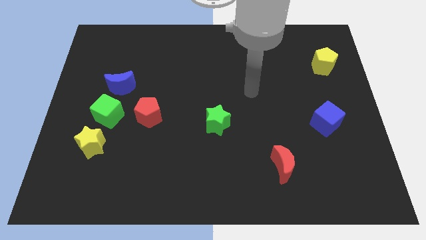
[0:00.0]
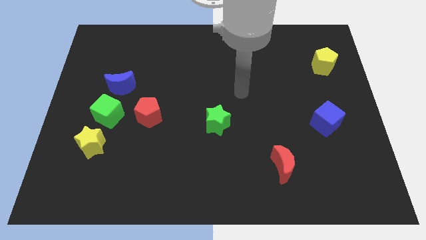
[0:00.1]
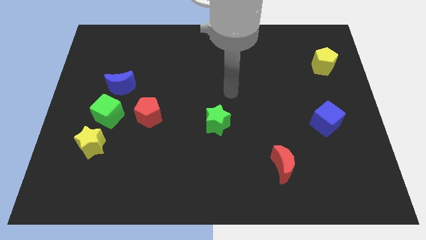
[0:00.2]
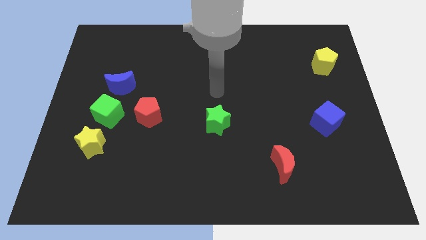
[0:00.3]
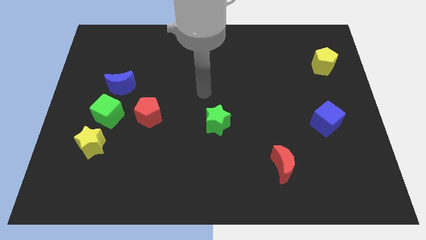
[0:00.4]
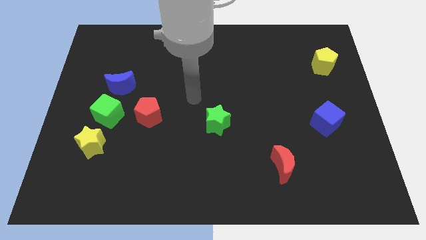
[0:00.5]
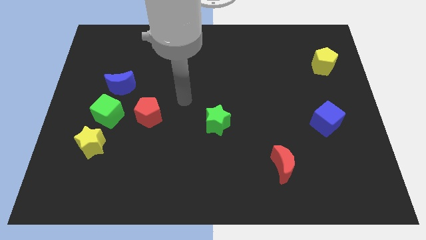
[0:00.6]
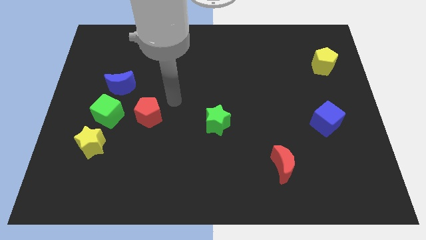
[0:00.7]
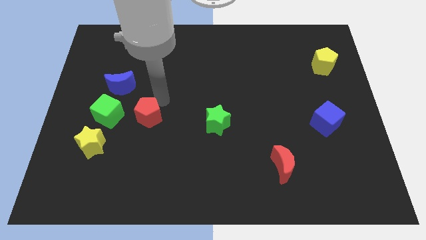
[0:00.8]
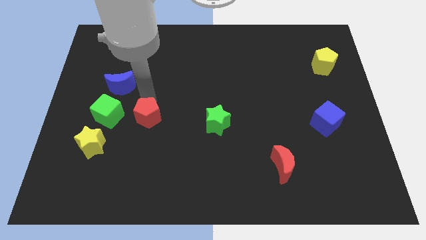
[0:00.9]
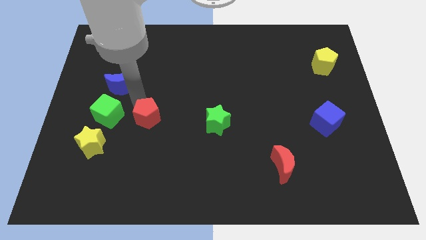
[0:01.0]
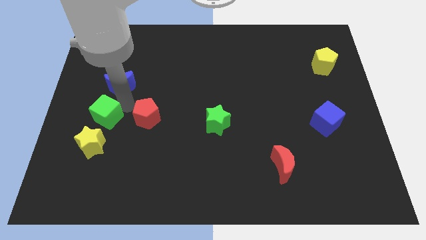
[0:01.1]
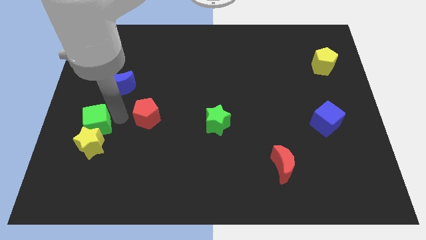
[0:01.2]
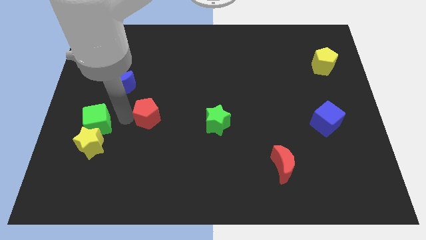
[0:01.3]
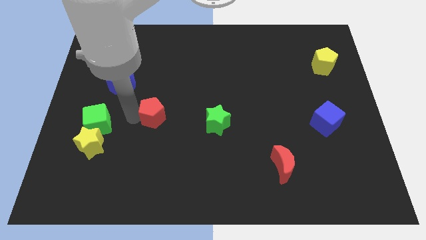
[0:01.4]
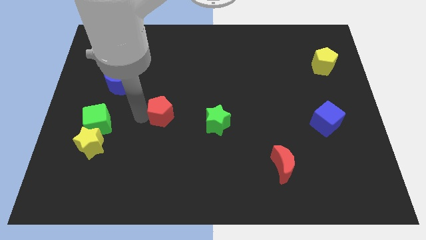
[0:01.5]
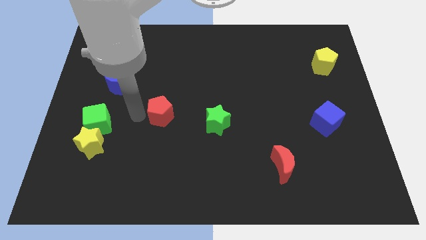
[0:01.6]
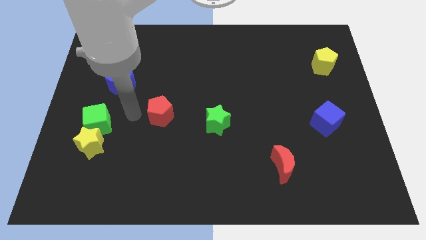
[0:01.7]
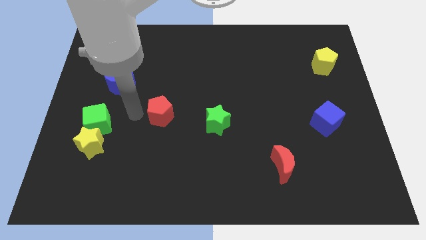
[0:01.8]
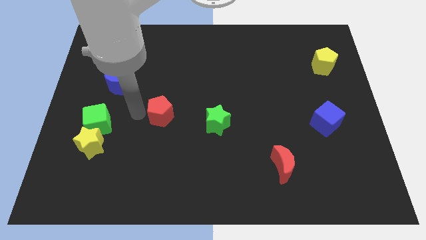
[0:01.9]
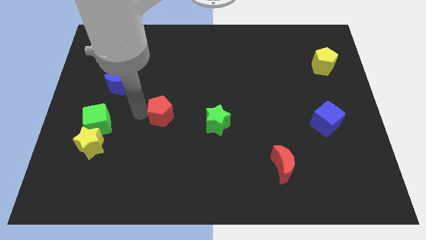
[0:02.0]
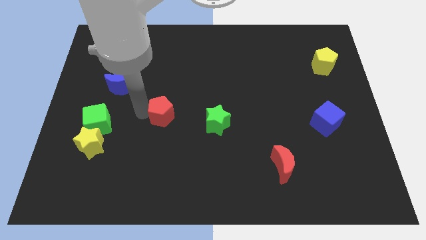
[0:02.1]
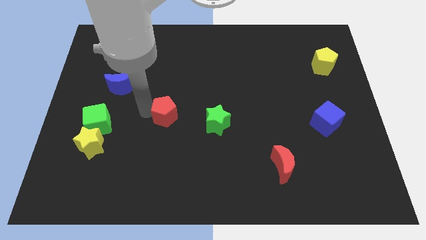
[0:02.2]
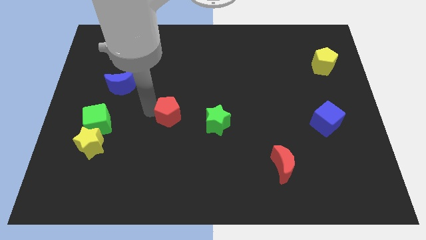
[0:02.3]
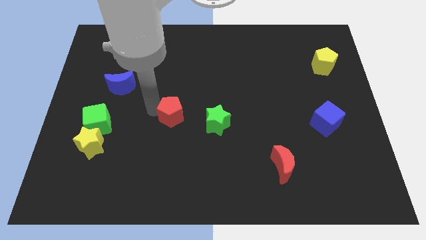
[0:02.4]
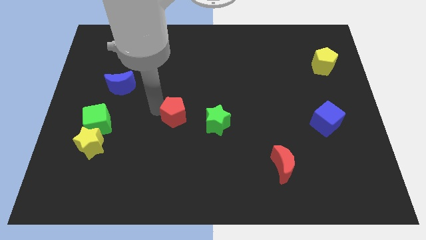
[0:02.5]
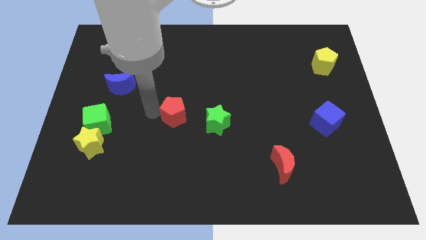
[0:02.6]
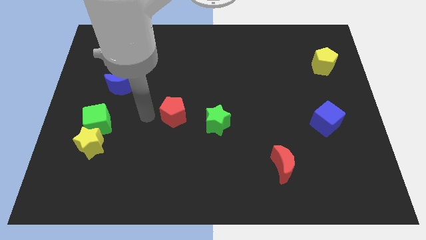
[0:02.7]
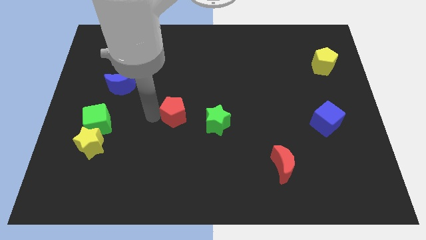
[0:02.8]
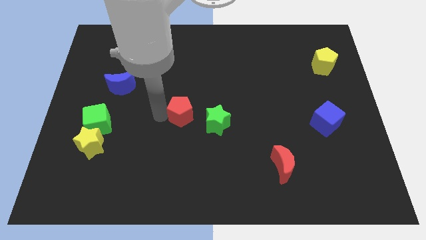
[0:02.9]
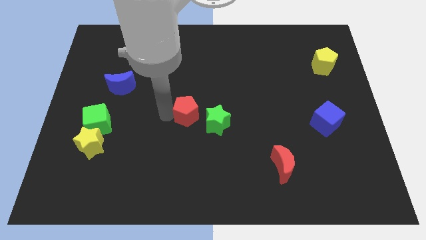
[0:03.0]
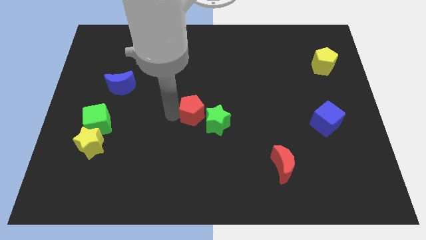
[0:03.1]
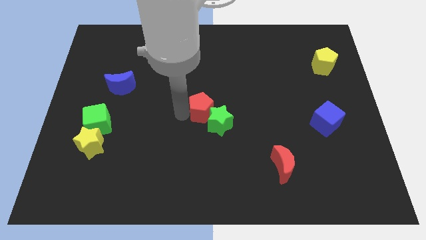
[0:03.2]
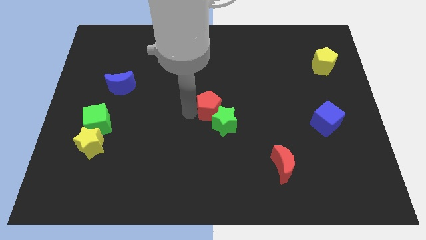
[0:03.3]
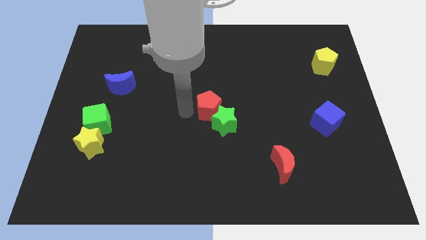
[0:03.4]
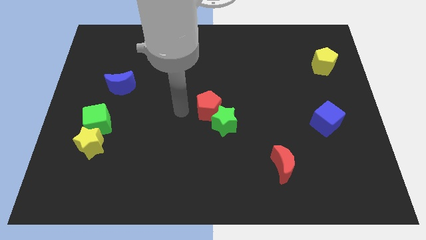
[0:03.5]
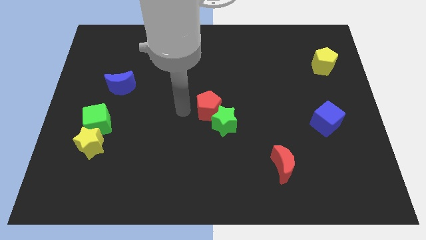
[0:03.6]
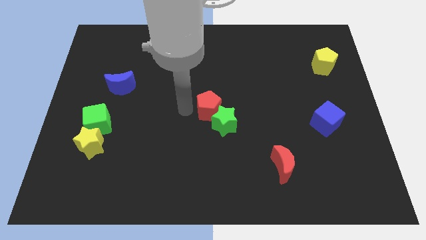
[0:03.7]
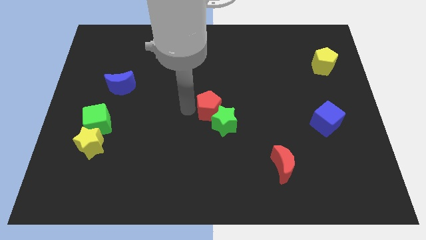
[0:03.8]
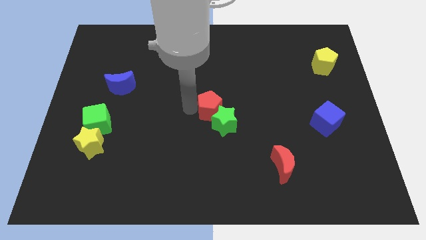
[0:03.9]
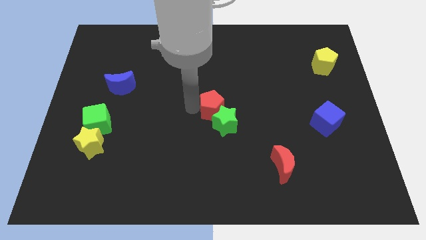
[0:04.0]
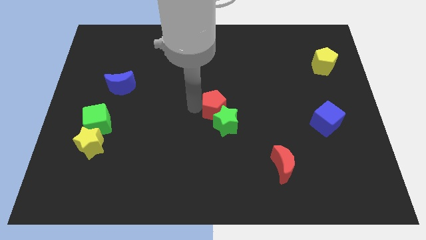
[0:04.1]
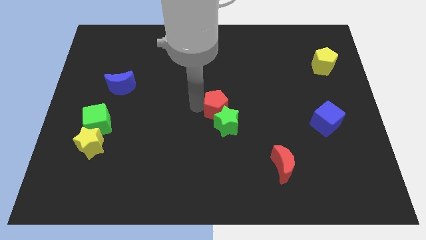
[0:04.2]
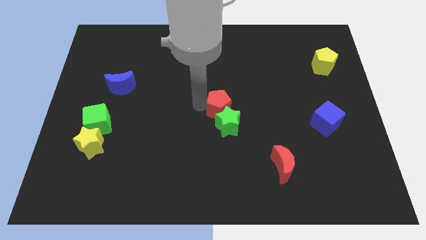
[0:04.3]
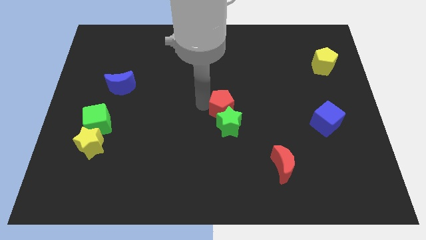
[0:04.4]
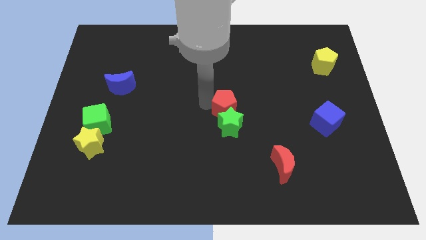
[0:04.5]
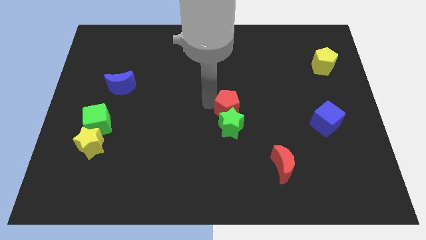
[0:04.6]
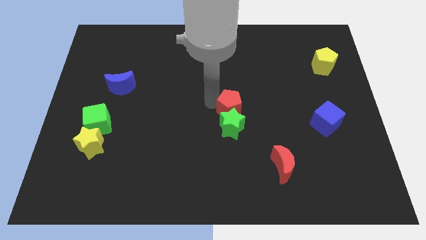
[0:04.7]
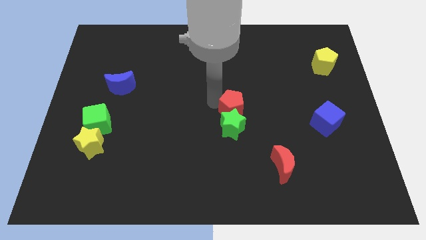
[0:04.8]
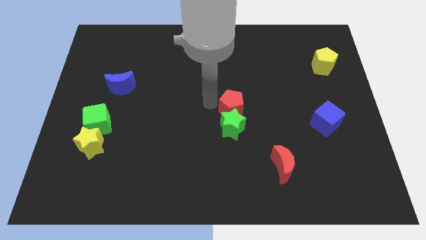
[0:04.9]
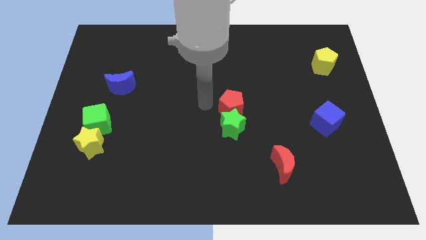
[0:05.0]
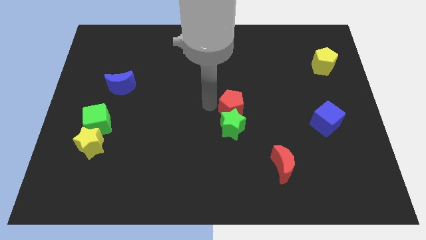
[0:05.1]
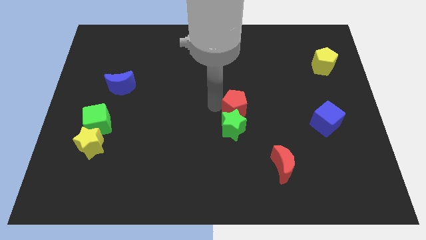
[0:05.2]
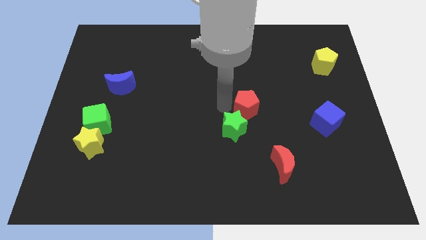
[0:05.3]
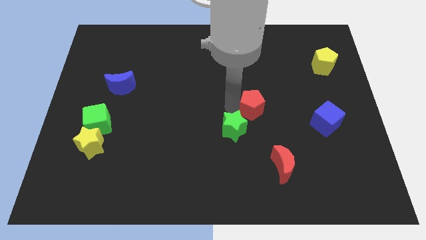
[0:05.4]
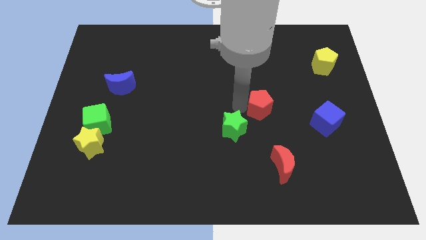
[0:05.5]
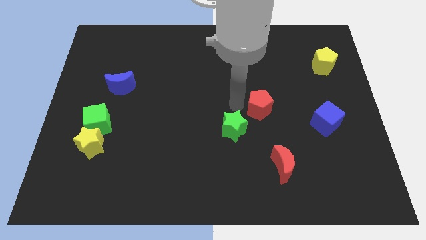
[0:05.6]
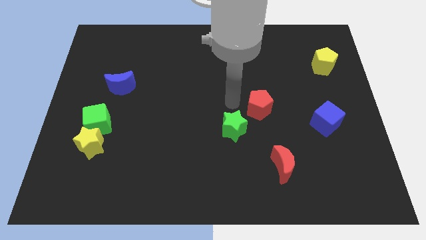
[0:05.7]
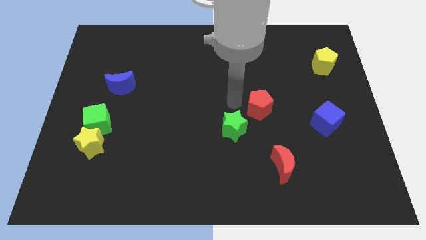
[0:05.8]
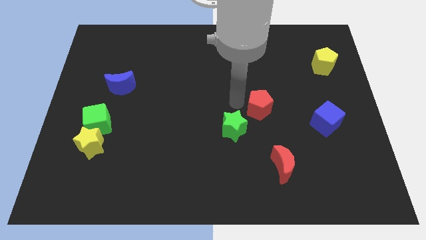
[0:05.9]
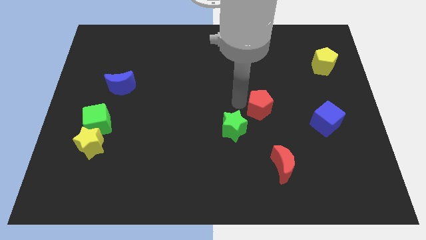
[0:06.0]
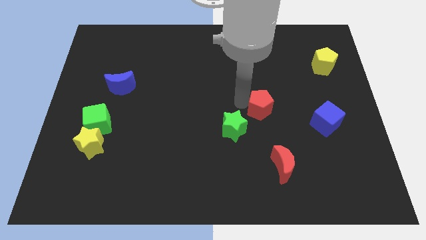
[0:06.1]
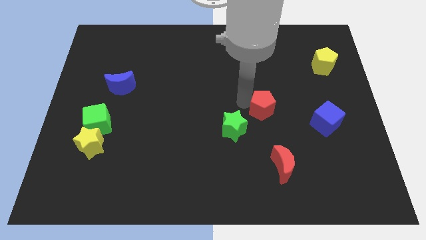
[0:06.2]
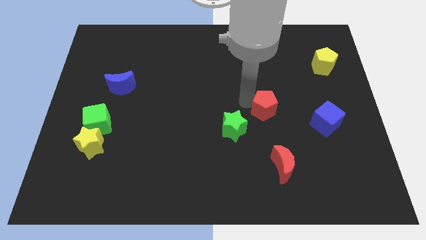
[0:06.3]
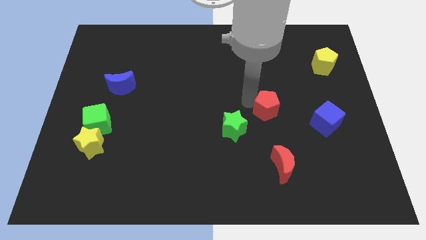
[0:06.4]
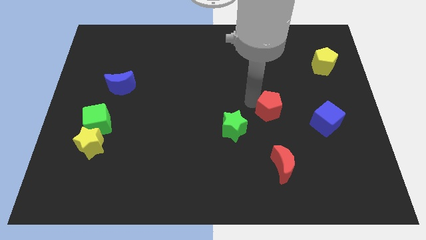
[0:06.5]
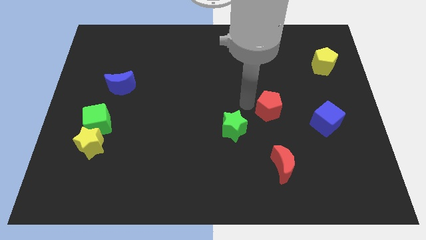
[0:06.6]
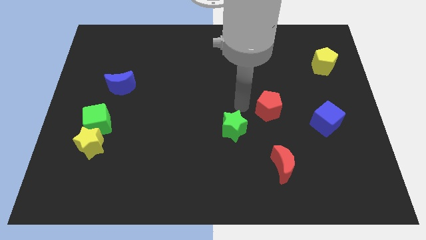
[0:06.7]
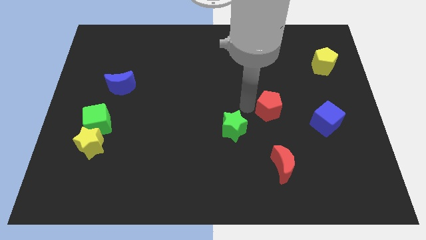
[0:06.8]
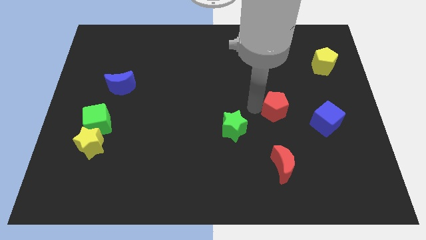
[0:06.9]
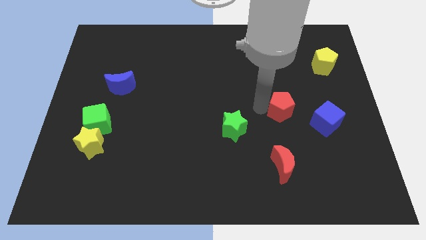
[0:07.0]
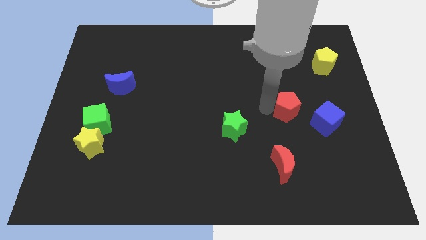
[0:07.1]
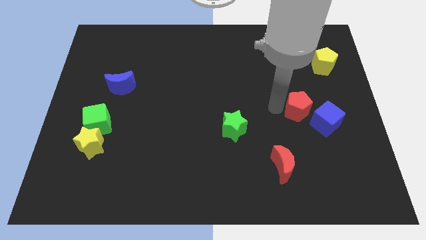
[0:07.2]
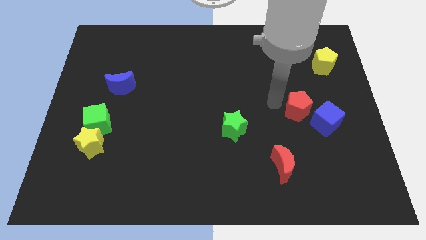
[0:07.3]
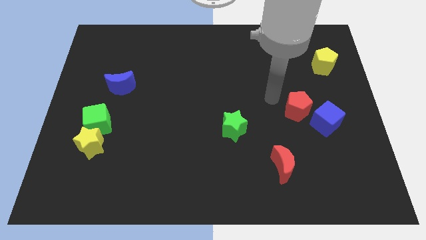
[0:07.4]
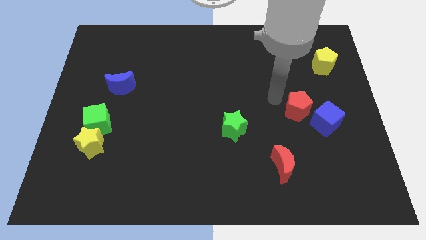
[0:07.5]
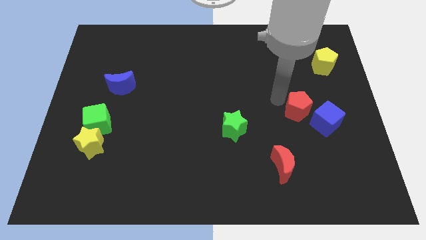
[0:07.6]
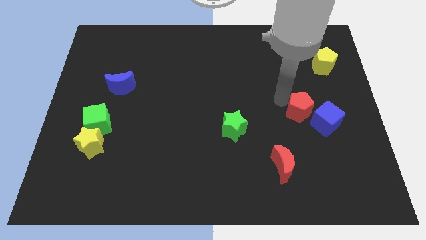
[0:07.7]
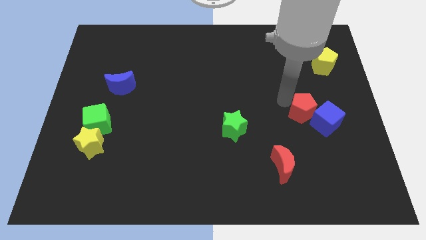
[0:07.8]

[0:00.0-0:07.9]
slide the red pentagon next to the blue cube
